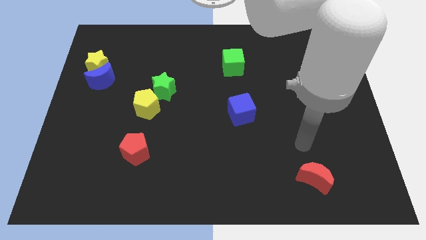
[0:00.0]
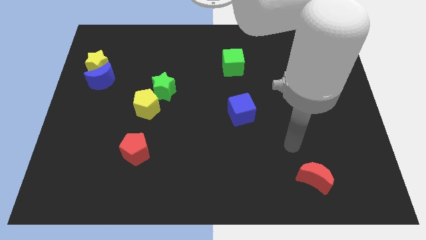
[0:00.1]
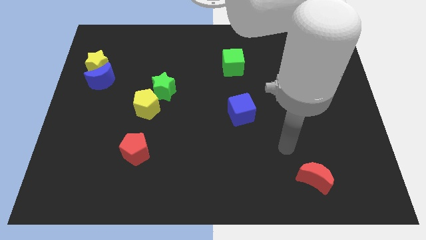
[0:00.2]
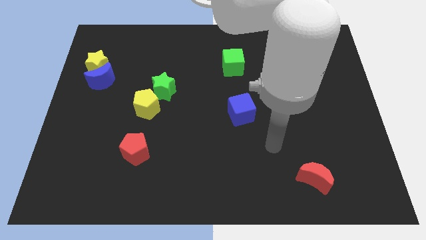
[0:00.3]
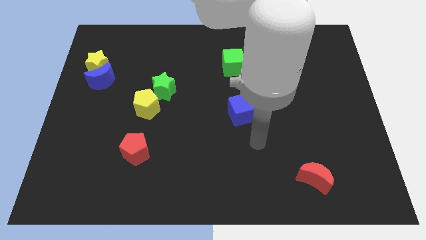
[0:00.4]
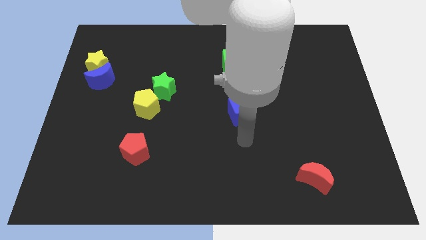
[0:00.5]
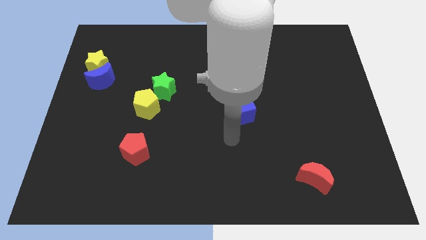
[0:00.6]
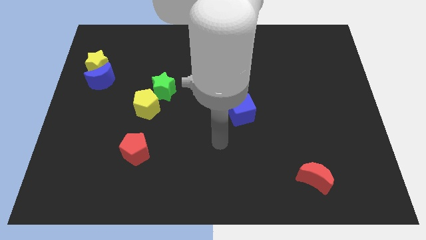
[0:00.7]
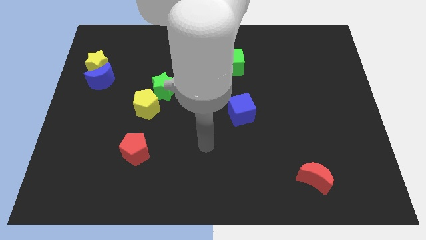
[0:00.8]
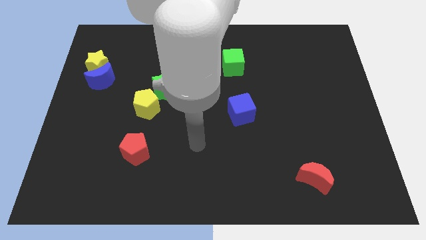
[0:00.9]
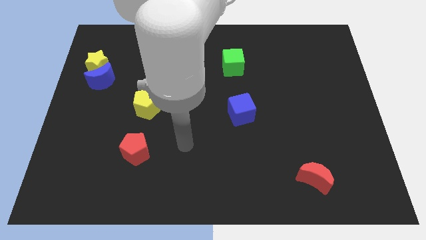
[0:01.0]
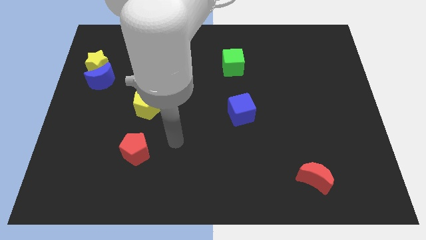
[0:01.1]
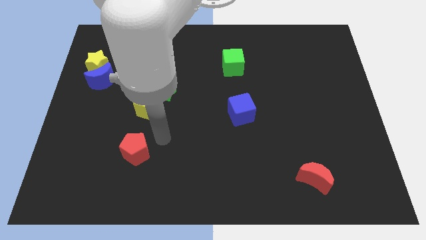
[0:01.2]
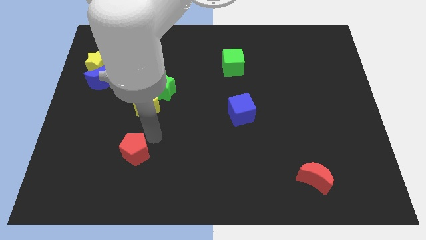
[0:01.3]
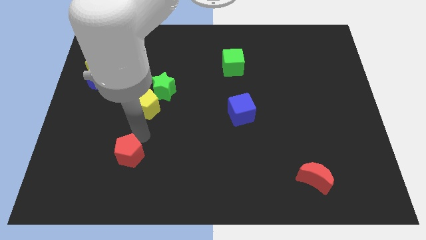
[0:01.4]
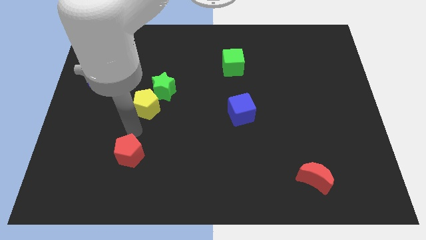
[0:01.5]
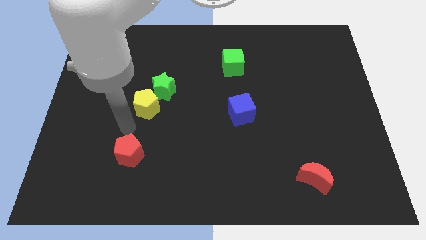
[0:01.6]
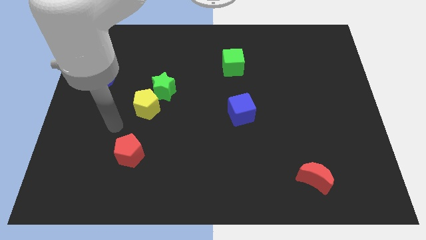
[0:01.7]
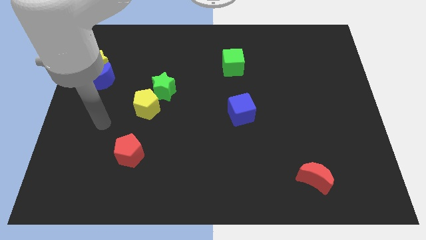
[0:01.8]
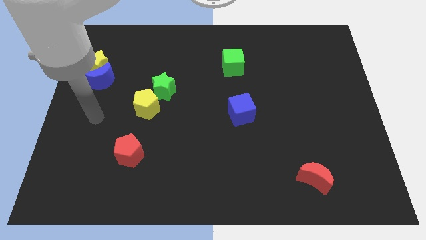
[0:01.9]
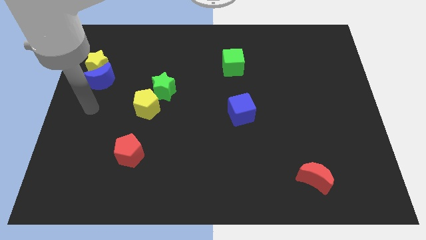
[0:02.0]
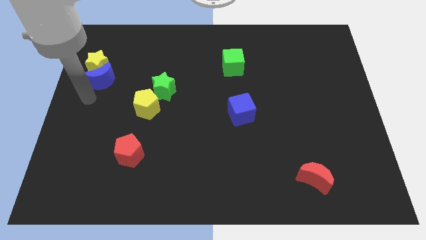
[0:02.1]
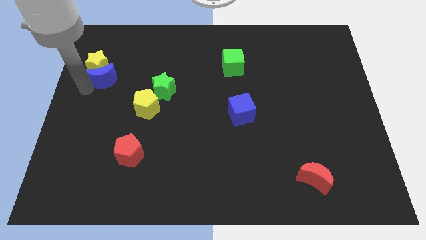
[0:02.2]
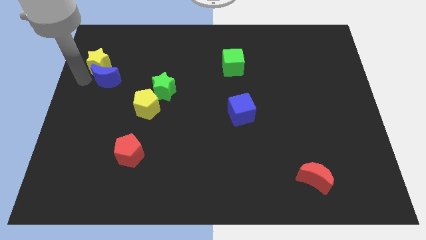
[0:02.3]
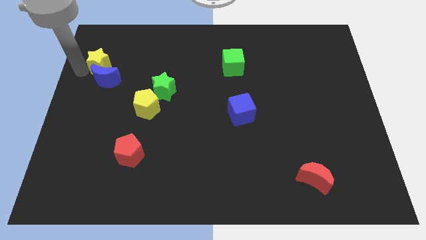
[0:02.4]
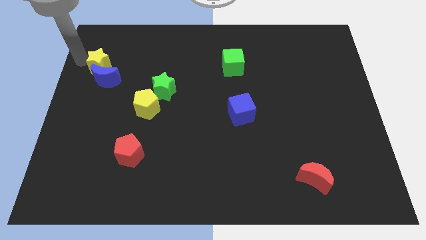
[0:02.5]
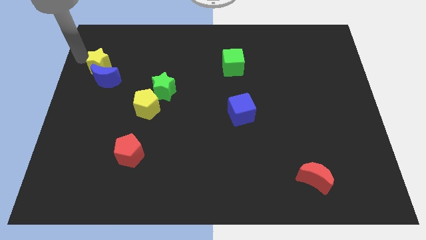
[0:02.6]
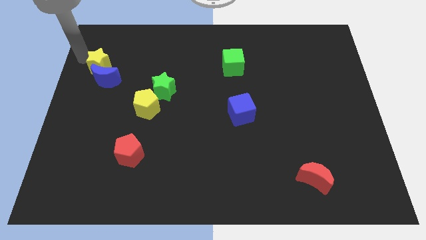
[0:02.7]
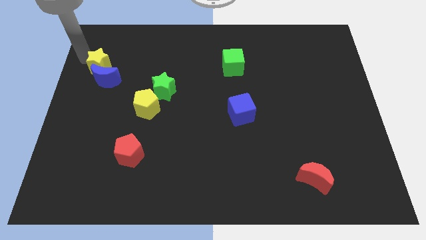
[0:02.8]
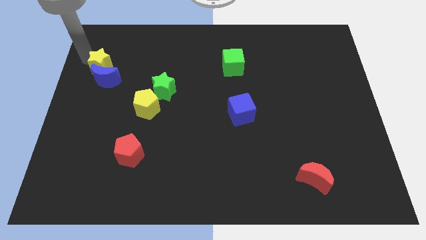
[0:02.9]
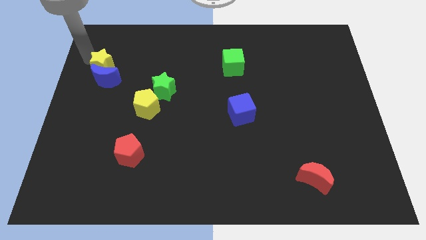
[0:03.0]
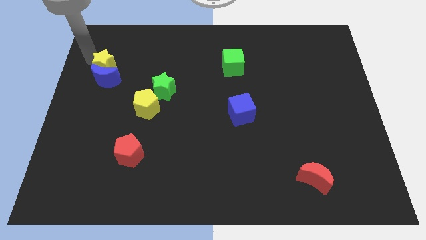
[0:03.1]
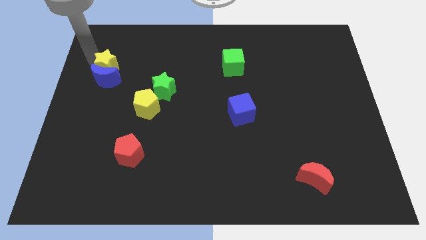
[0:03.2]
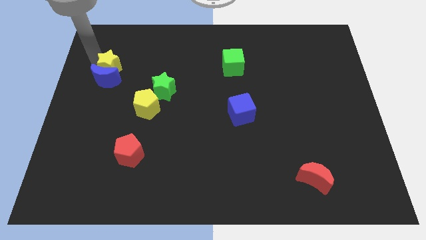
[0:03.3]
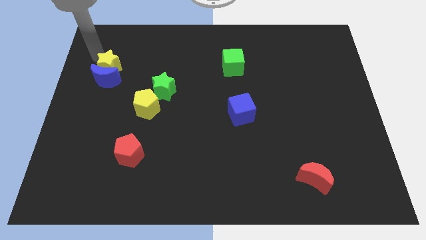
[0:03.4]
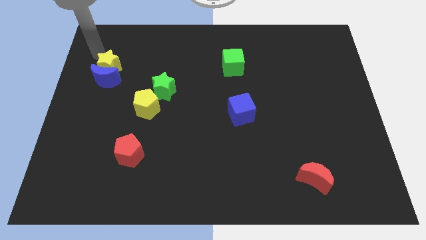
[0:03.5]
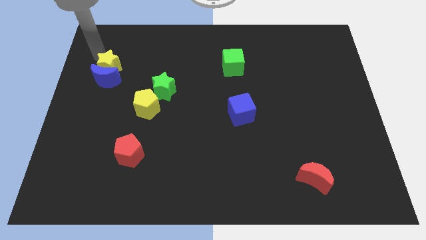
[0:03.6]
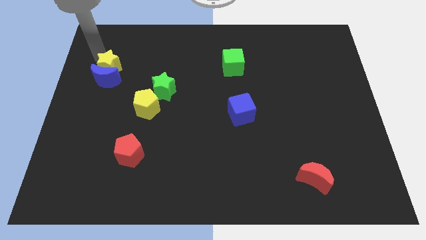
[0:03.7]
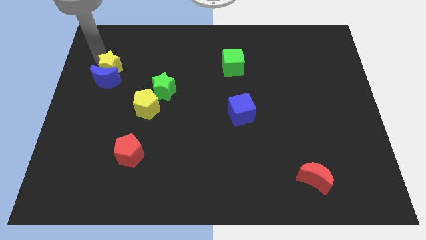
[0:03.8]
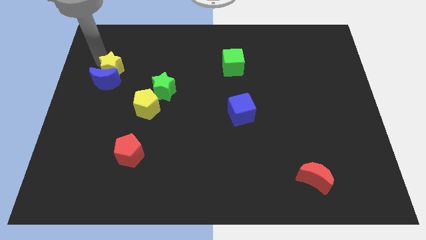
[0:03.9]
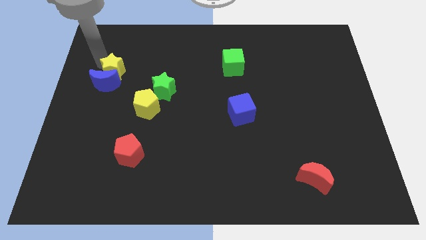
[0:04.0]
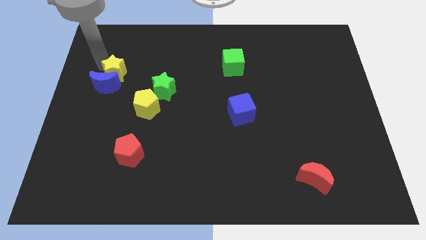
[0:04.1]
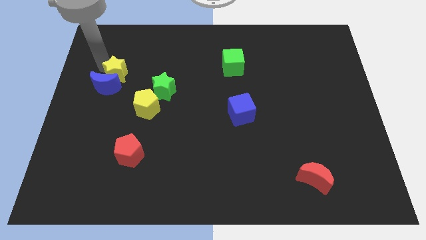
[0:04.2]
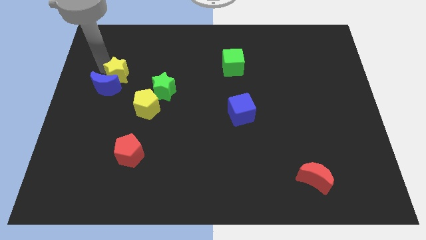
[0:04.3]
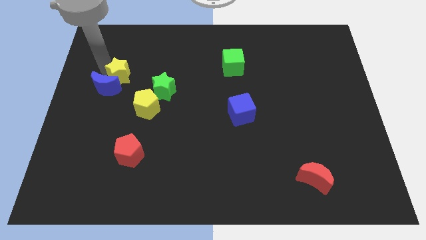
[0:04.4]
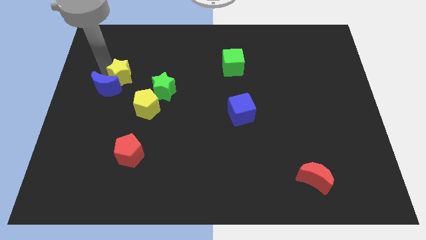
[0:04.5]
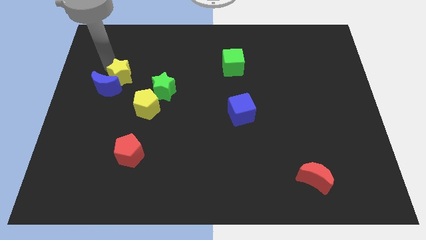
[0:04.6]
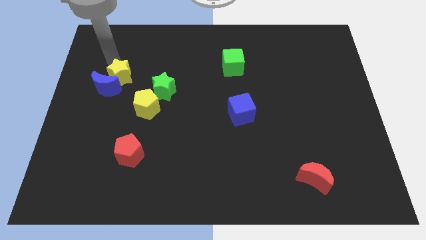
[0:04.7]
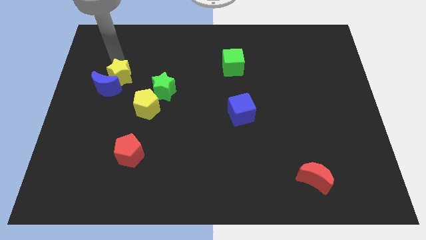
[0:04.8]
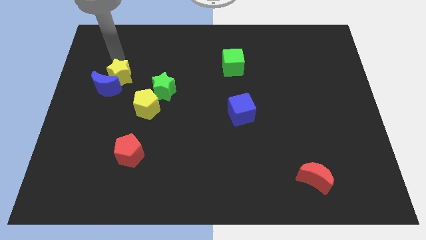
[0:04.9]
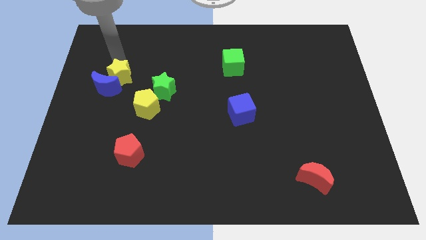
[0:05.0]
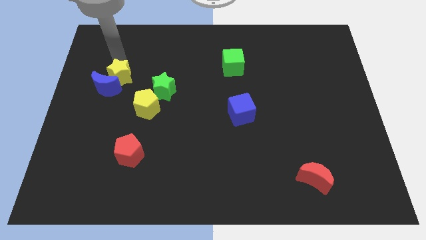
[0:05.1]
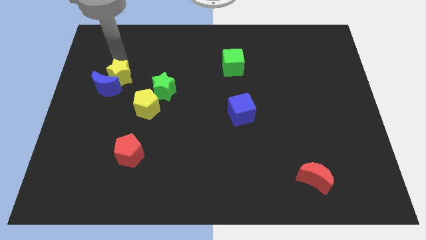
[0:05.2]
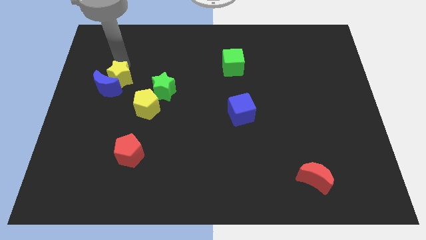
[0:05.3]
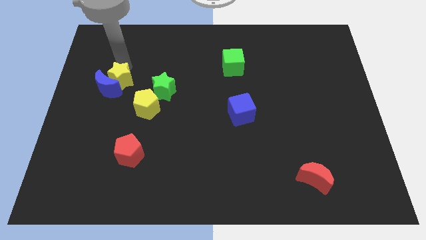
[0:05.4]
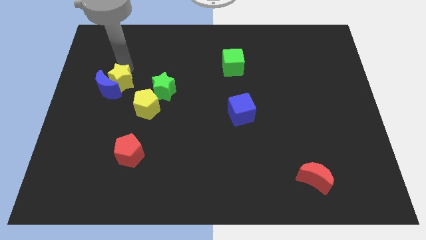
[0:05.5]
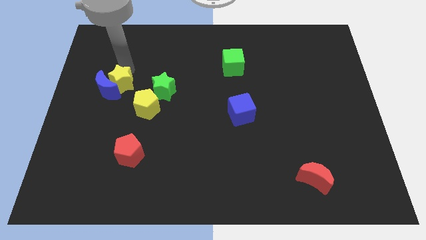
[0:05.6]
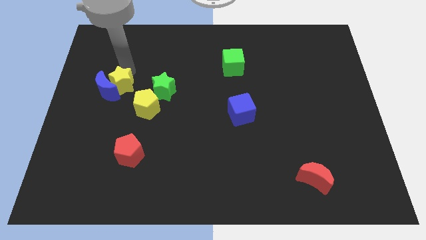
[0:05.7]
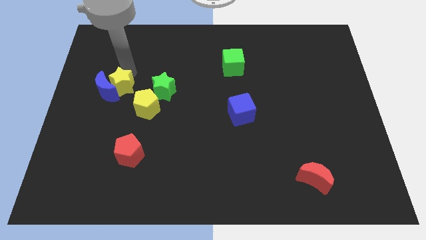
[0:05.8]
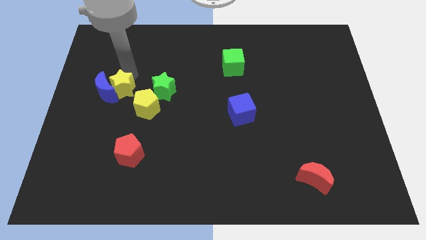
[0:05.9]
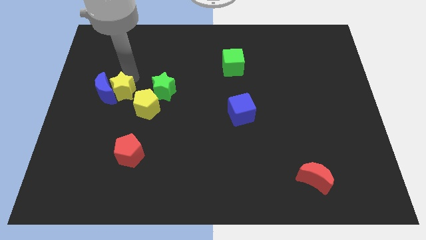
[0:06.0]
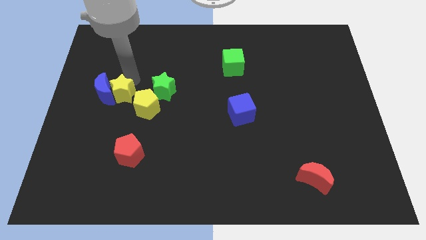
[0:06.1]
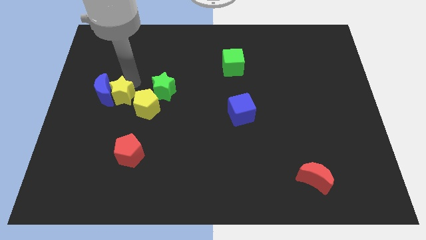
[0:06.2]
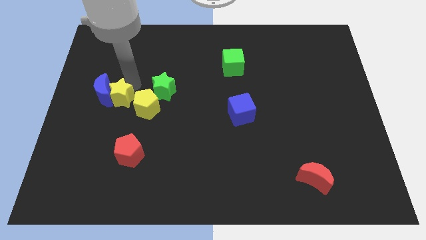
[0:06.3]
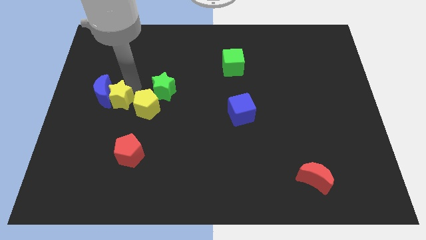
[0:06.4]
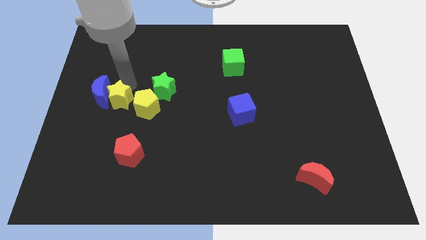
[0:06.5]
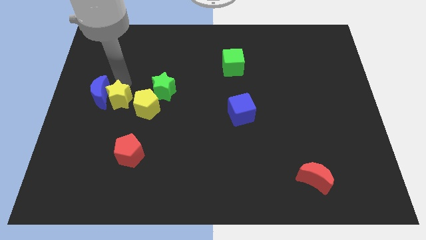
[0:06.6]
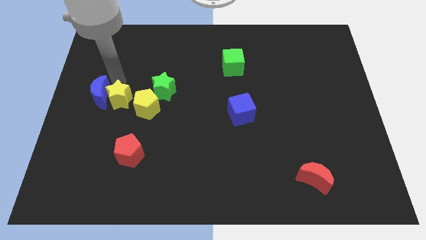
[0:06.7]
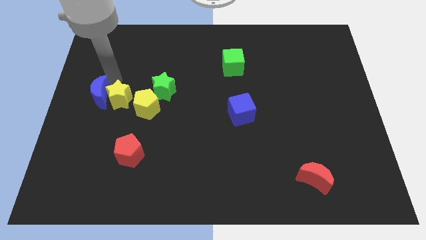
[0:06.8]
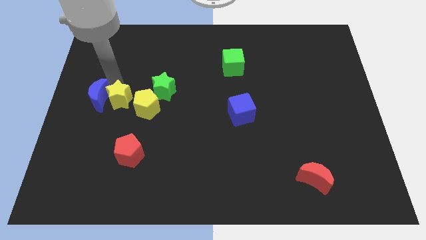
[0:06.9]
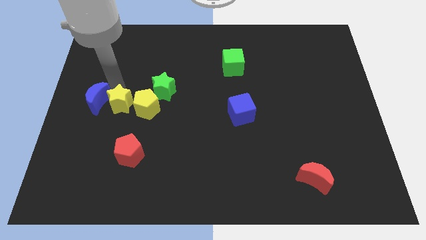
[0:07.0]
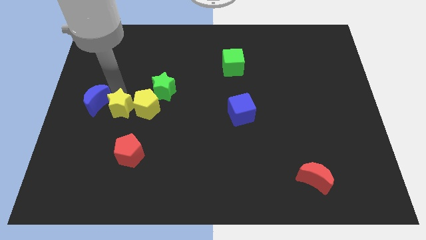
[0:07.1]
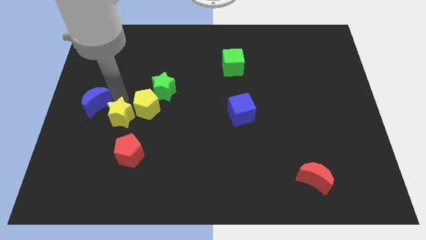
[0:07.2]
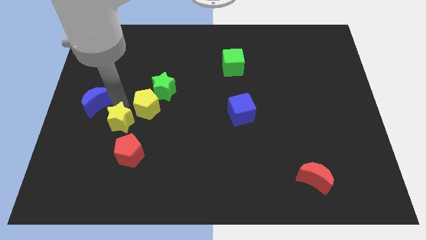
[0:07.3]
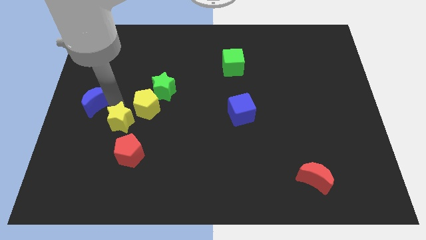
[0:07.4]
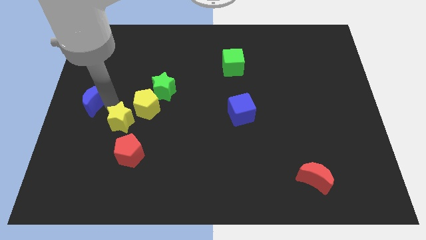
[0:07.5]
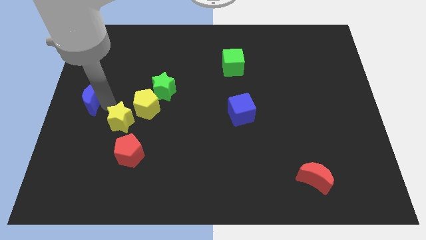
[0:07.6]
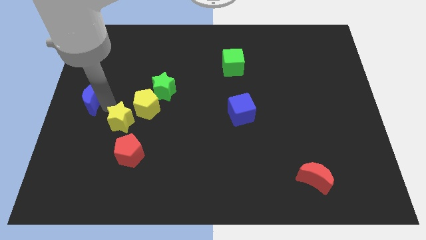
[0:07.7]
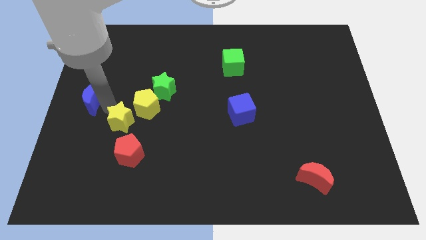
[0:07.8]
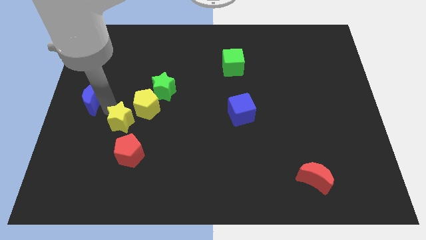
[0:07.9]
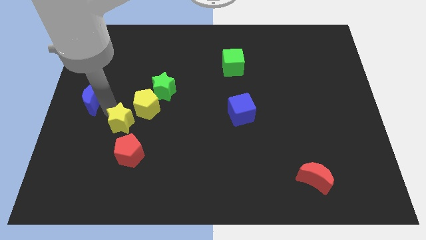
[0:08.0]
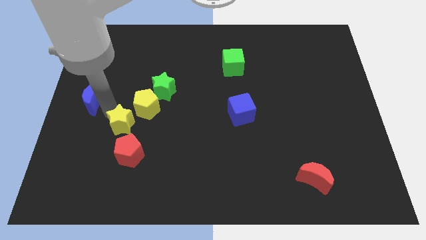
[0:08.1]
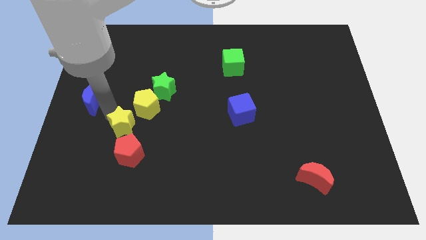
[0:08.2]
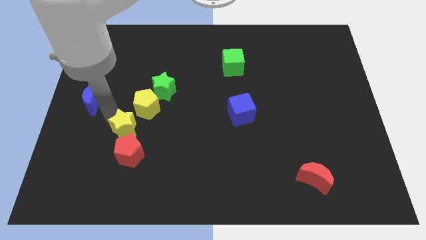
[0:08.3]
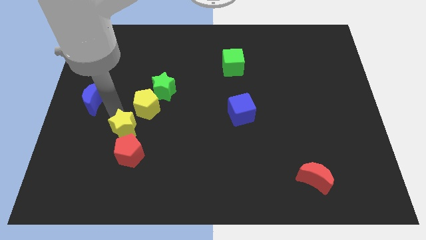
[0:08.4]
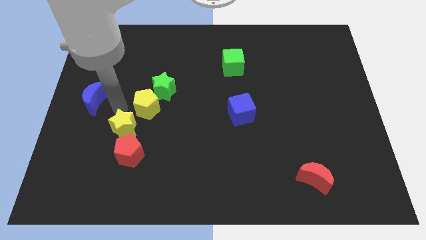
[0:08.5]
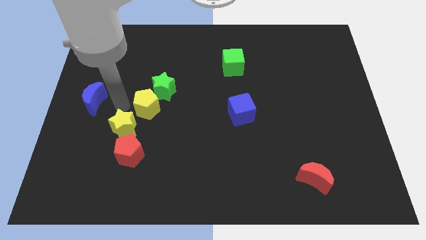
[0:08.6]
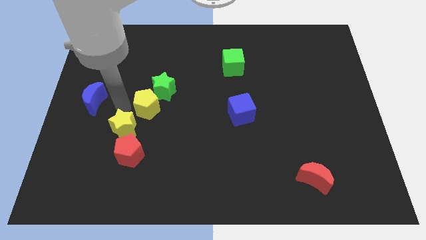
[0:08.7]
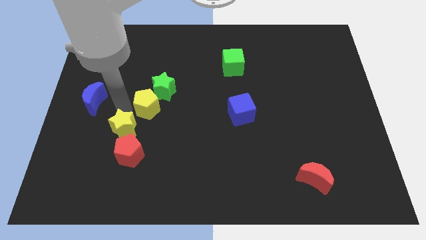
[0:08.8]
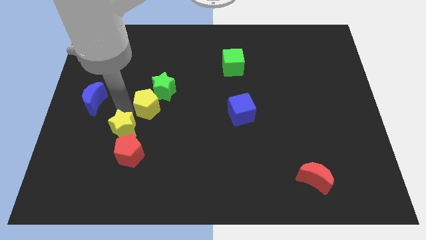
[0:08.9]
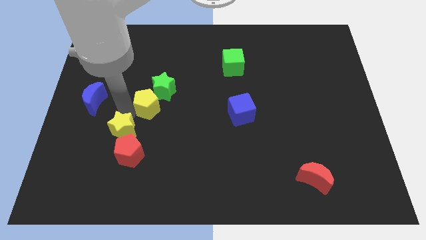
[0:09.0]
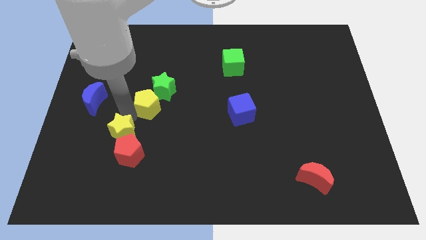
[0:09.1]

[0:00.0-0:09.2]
push the yellow star close to the red pentagon
